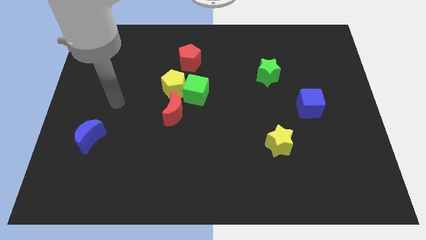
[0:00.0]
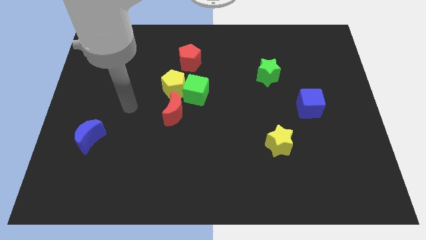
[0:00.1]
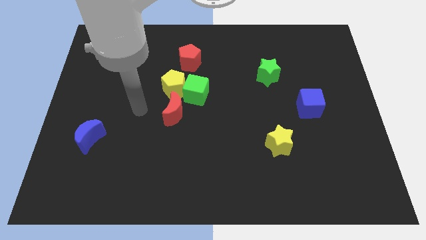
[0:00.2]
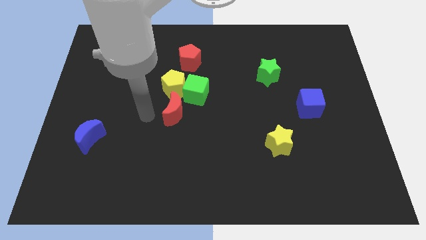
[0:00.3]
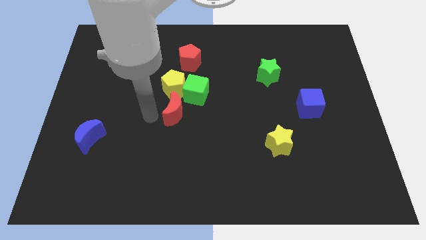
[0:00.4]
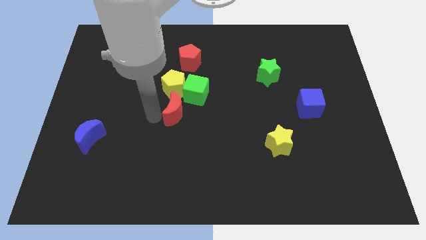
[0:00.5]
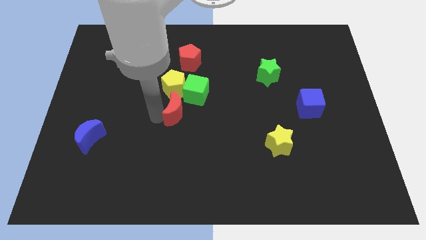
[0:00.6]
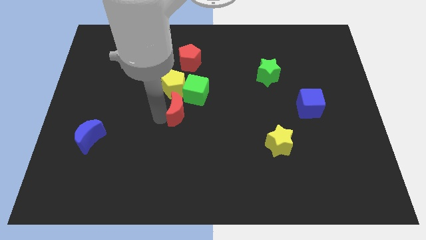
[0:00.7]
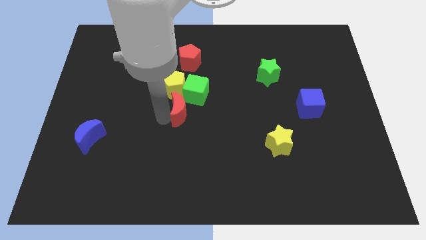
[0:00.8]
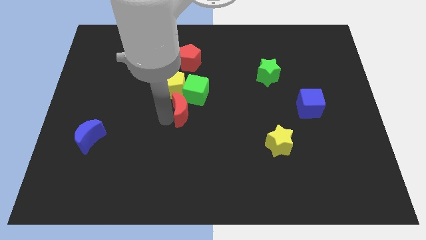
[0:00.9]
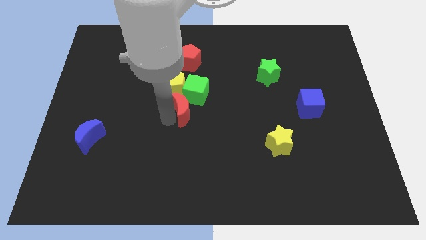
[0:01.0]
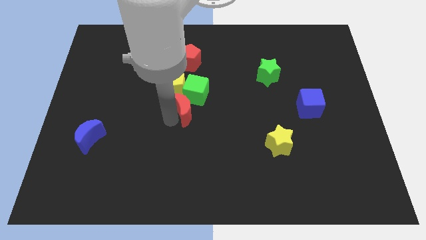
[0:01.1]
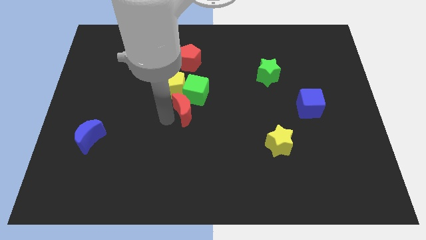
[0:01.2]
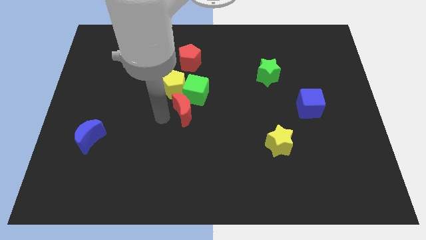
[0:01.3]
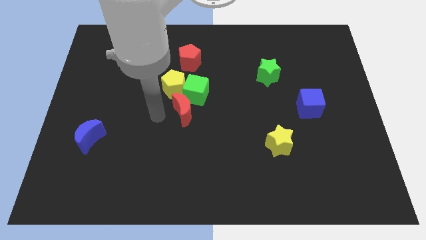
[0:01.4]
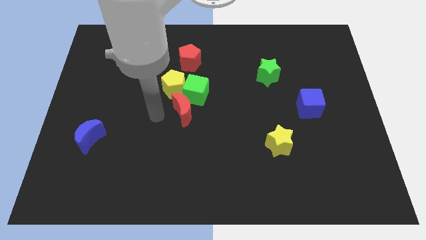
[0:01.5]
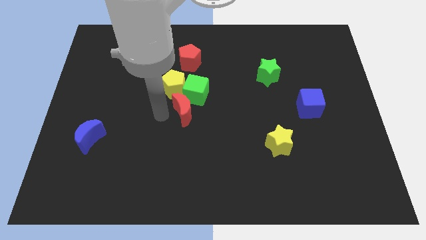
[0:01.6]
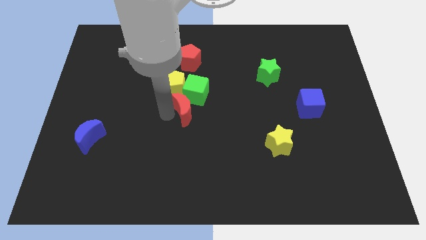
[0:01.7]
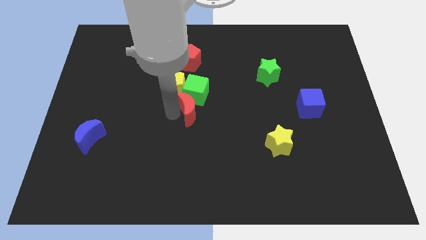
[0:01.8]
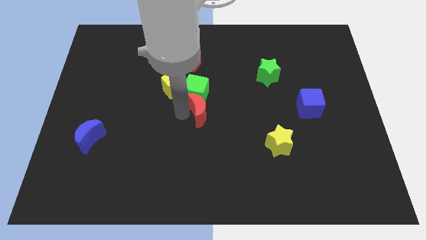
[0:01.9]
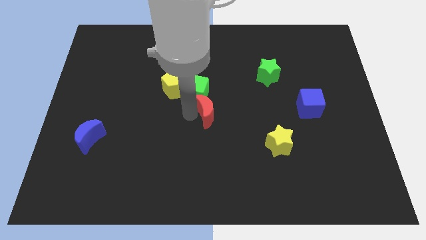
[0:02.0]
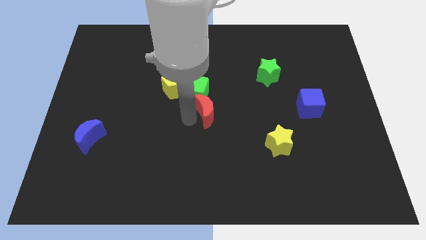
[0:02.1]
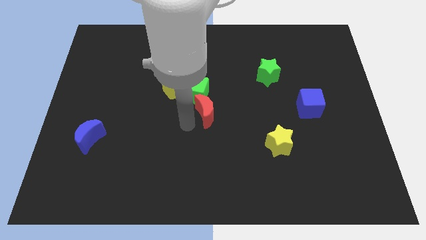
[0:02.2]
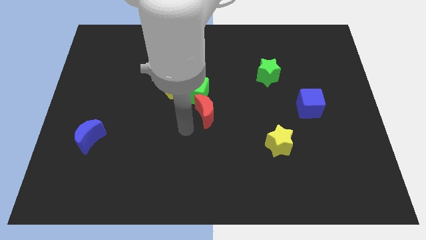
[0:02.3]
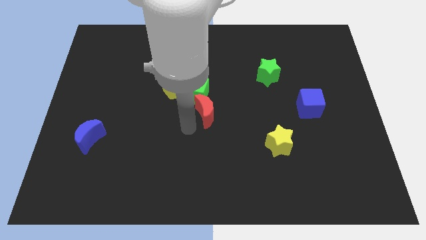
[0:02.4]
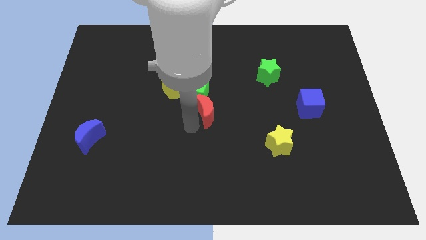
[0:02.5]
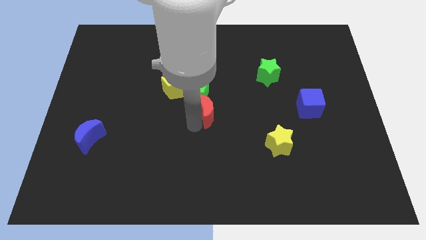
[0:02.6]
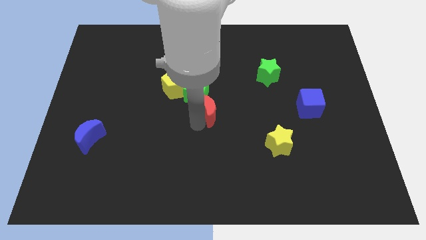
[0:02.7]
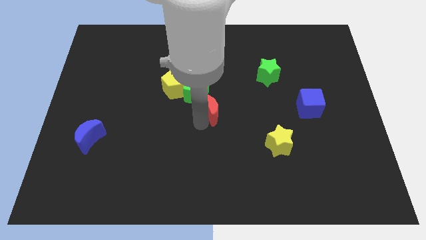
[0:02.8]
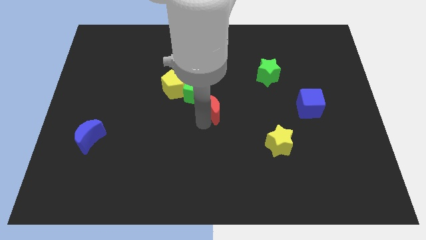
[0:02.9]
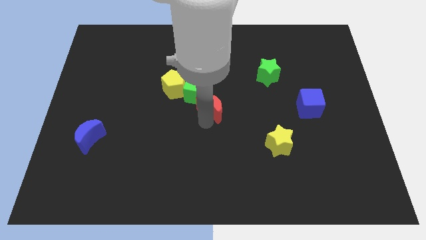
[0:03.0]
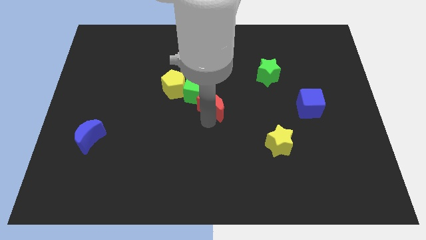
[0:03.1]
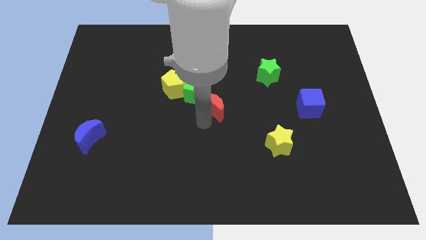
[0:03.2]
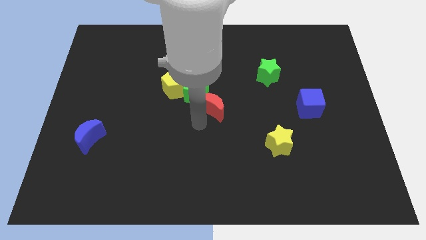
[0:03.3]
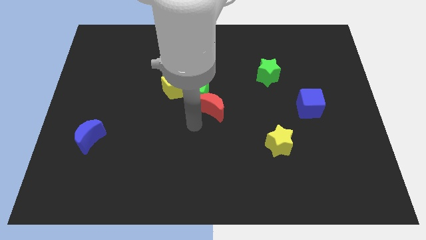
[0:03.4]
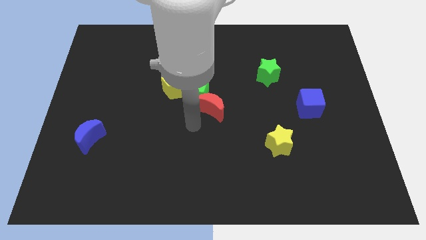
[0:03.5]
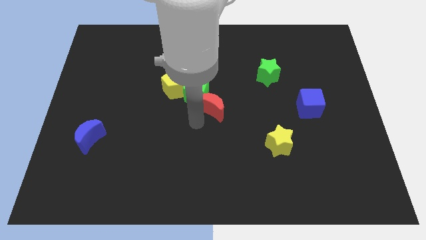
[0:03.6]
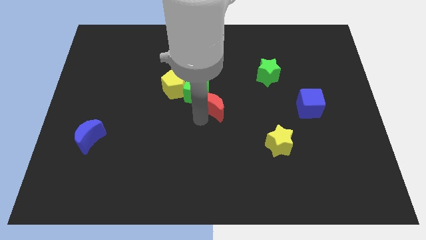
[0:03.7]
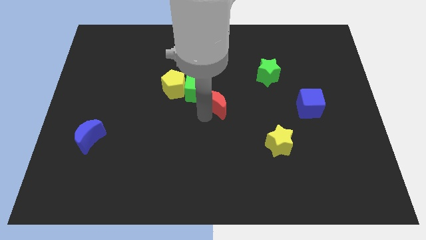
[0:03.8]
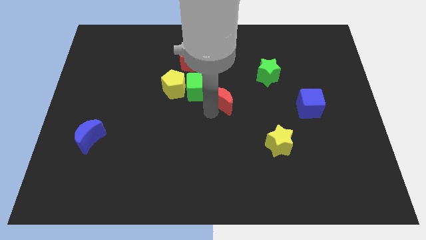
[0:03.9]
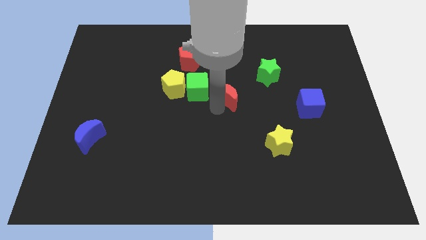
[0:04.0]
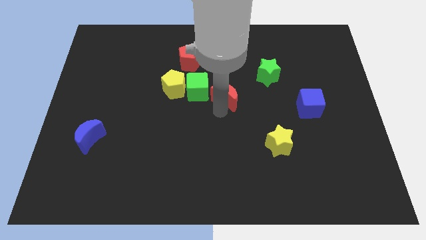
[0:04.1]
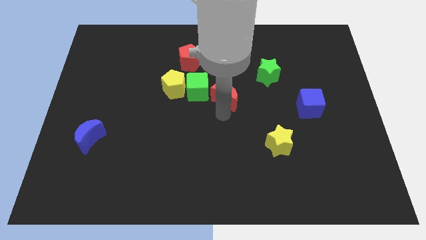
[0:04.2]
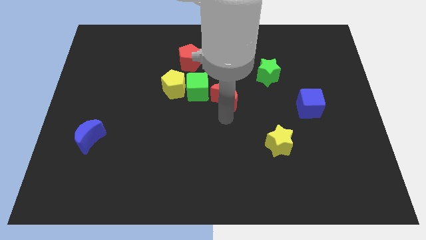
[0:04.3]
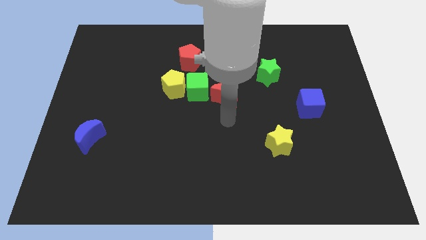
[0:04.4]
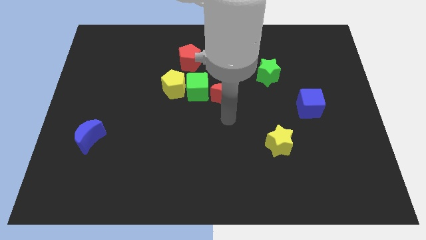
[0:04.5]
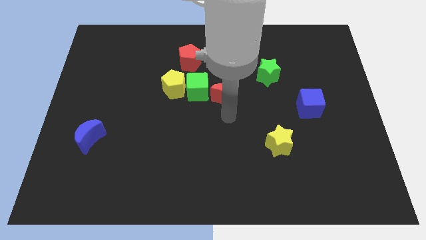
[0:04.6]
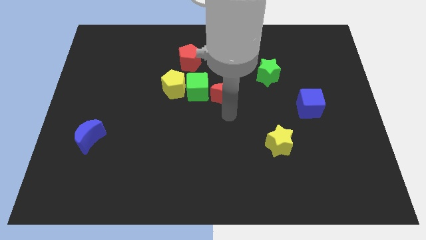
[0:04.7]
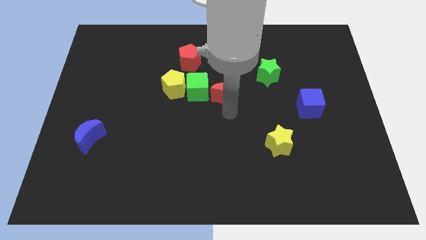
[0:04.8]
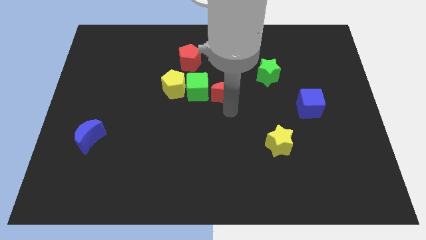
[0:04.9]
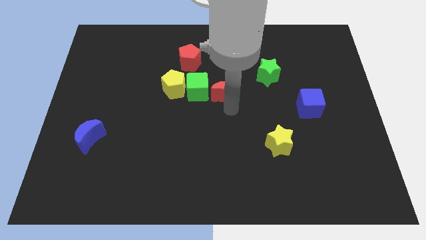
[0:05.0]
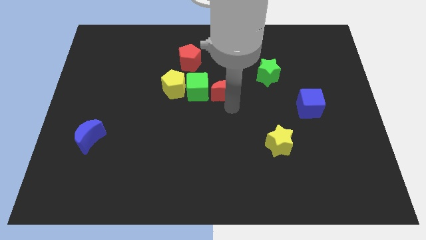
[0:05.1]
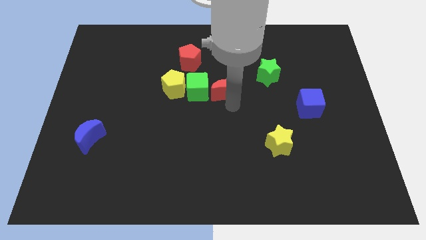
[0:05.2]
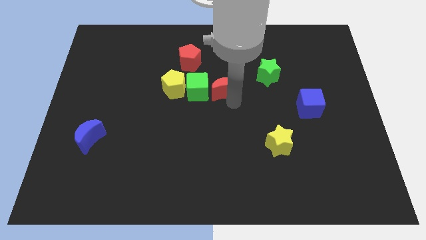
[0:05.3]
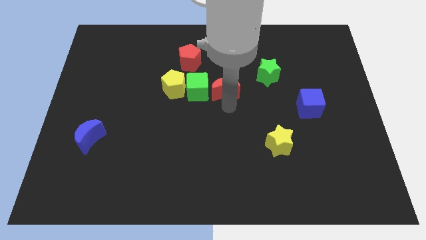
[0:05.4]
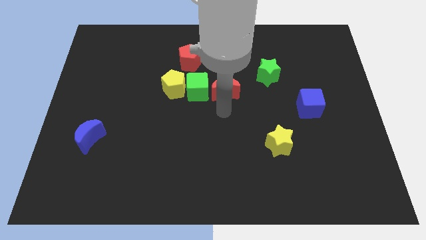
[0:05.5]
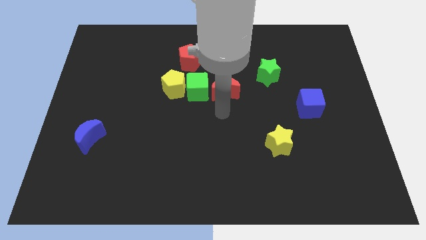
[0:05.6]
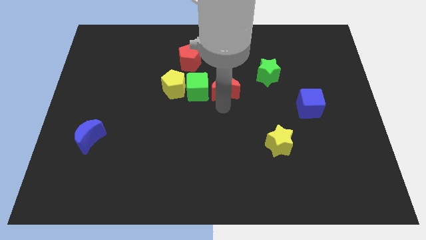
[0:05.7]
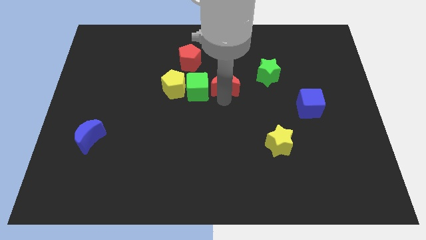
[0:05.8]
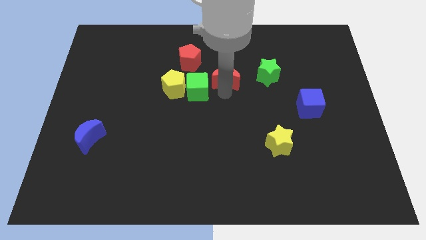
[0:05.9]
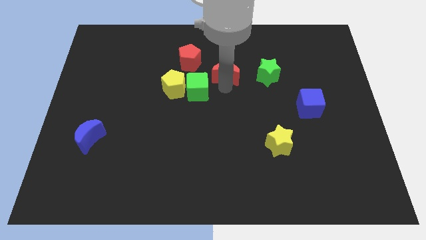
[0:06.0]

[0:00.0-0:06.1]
put the red moon to the right of the red pentagon
